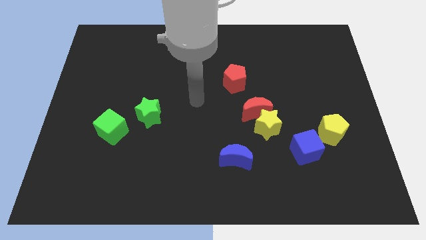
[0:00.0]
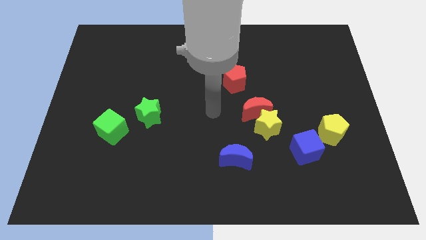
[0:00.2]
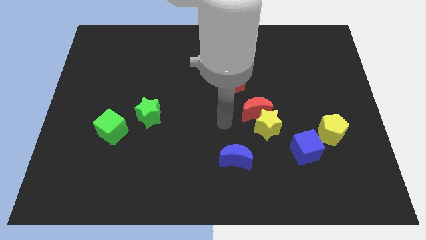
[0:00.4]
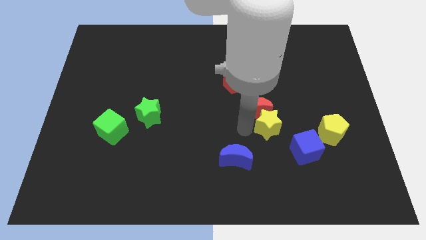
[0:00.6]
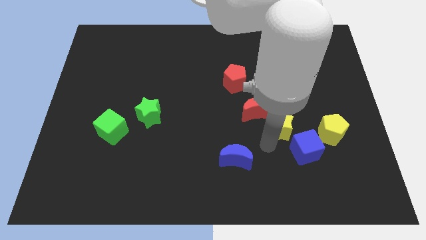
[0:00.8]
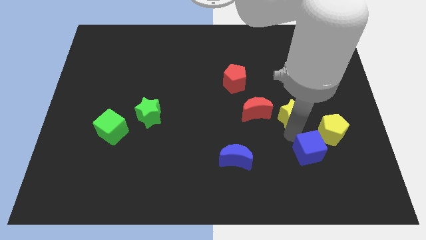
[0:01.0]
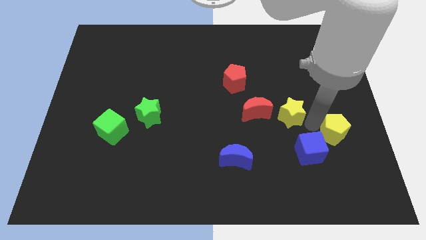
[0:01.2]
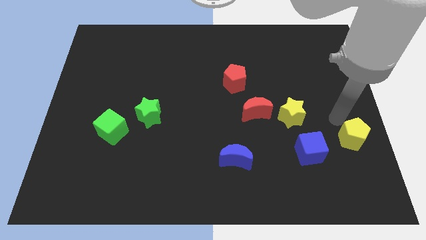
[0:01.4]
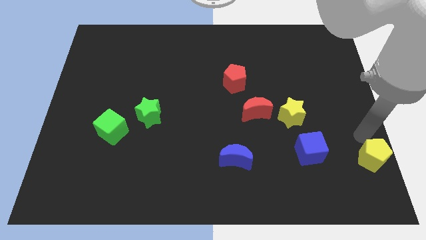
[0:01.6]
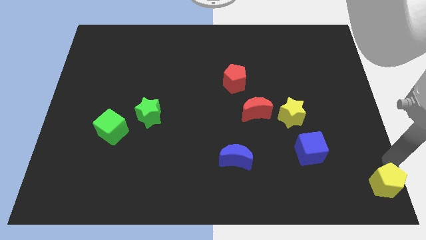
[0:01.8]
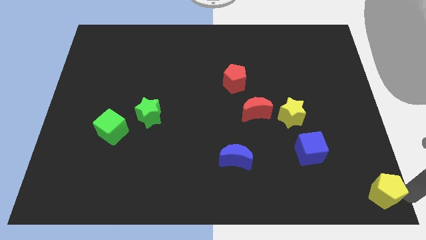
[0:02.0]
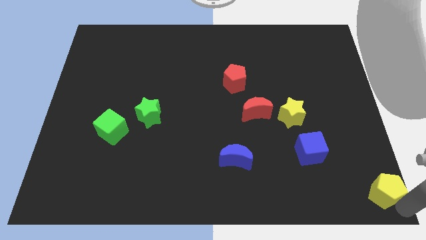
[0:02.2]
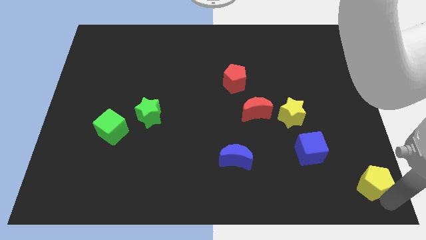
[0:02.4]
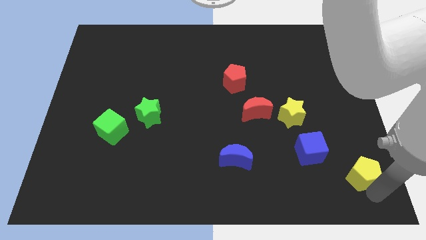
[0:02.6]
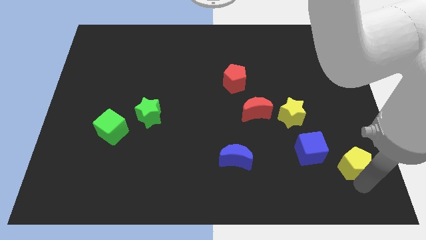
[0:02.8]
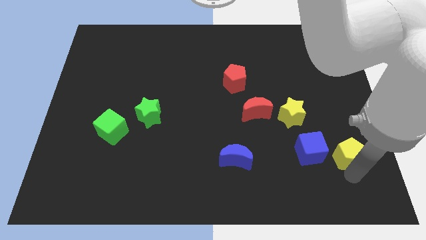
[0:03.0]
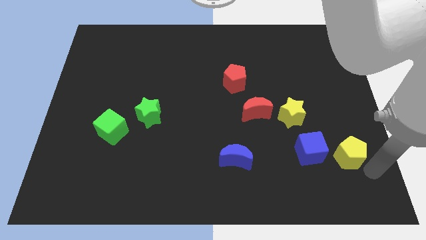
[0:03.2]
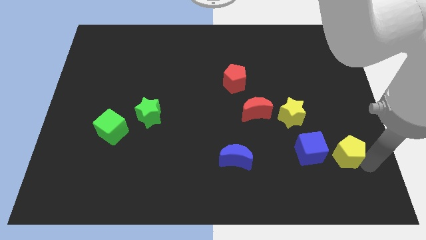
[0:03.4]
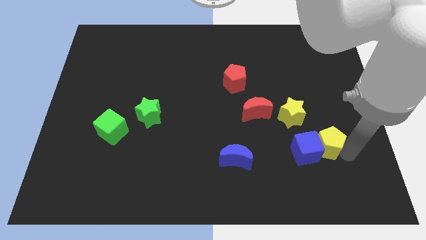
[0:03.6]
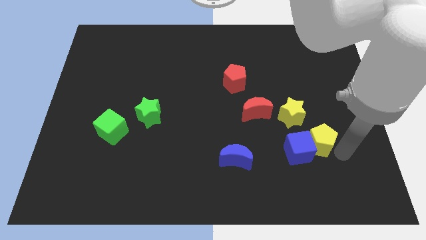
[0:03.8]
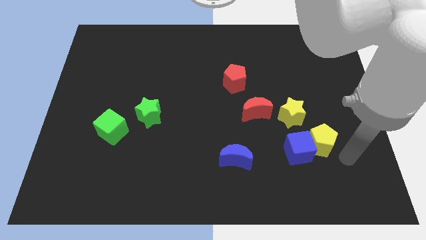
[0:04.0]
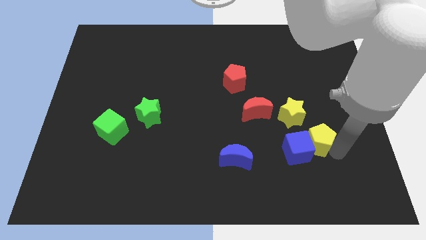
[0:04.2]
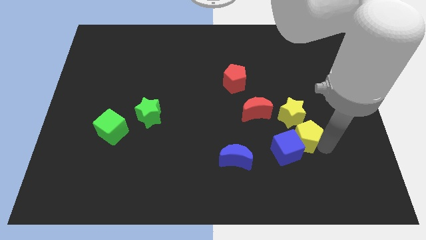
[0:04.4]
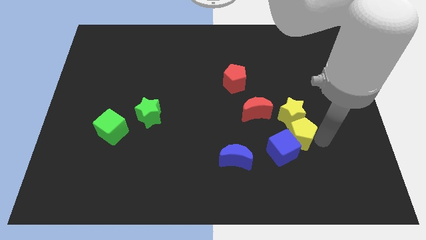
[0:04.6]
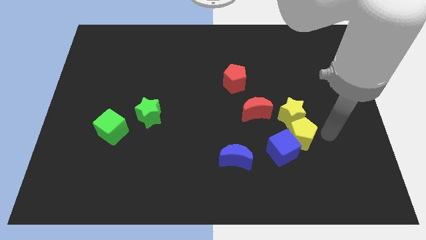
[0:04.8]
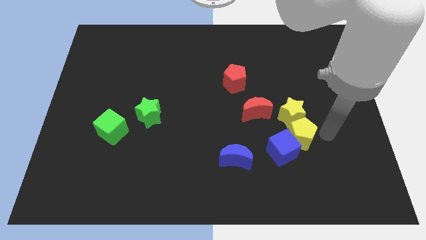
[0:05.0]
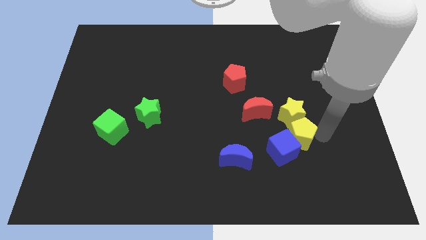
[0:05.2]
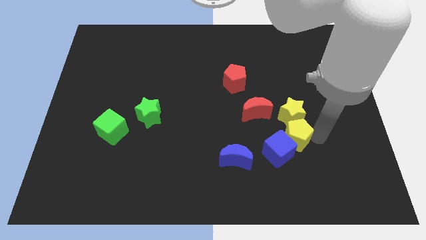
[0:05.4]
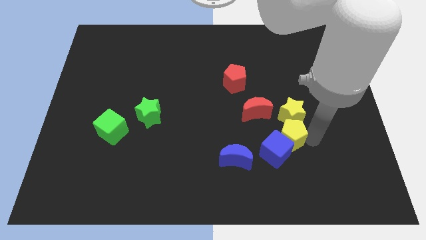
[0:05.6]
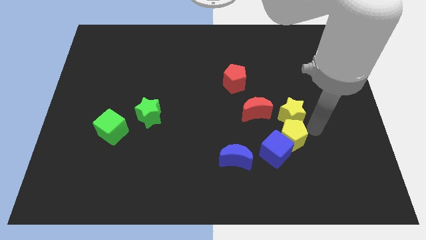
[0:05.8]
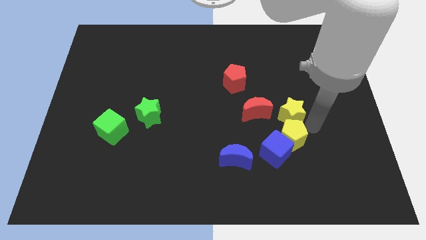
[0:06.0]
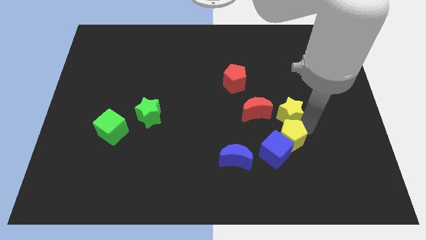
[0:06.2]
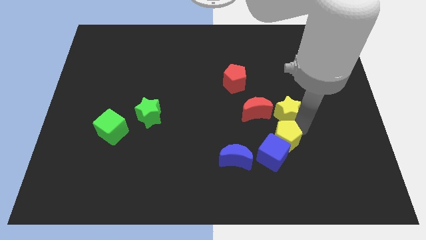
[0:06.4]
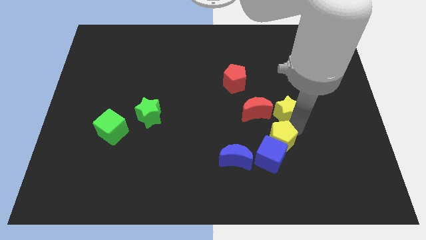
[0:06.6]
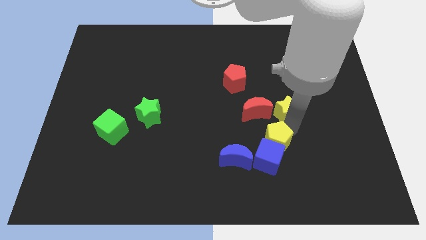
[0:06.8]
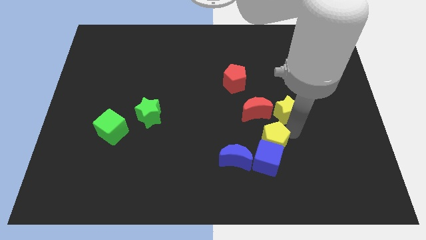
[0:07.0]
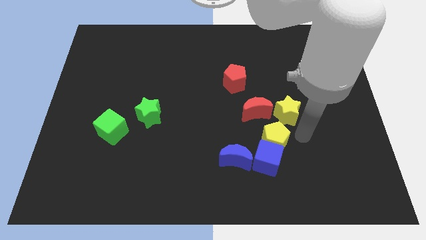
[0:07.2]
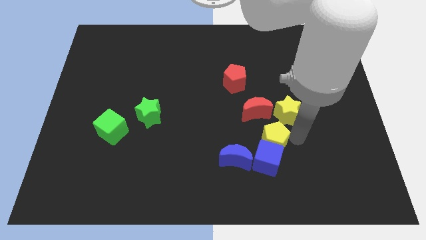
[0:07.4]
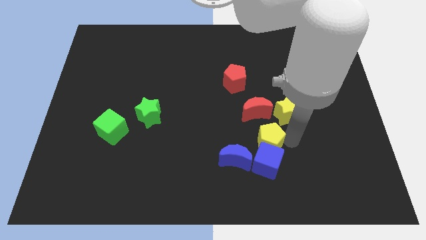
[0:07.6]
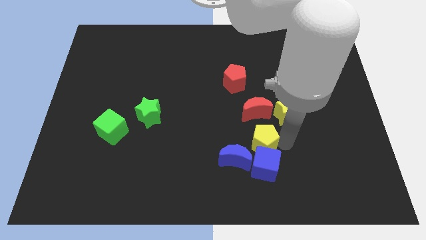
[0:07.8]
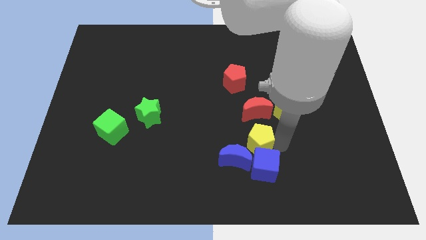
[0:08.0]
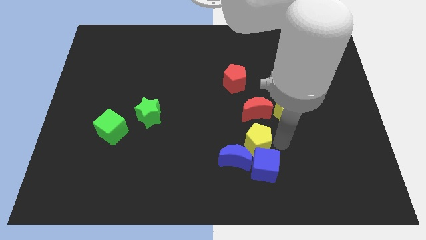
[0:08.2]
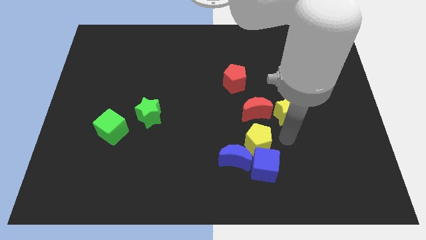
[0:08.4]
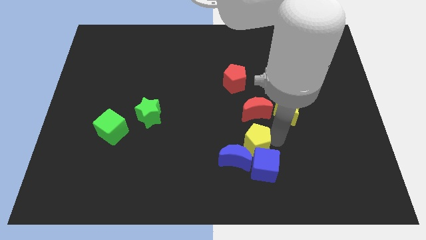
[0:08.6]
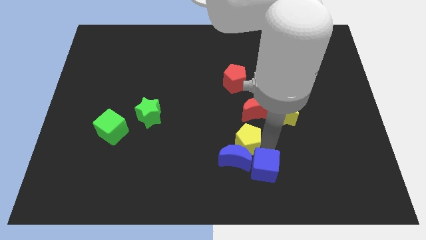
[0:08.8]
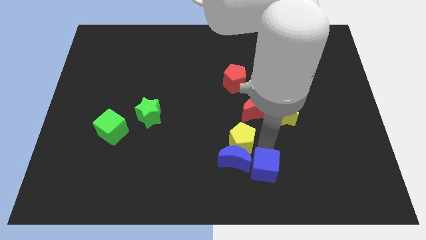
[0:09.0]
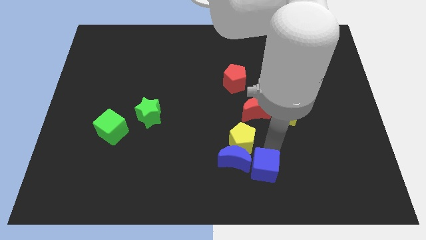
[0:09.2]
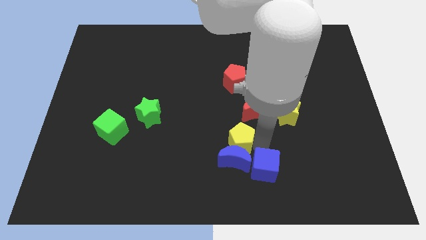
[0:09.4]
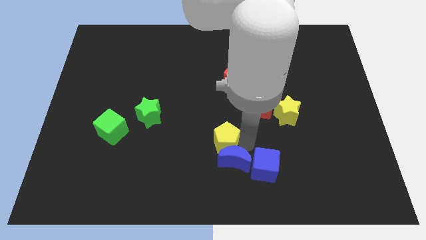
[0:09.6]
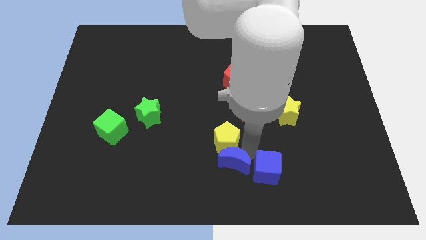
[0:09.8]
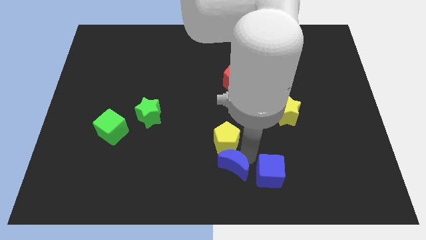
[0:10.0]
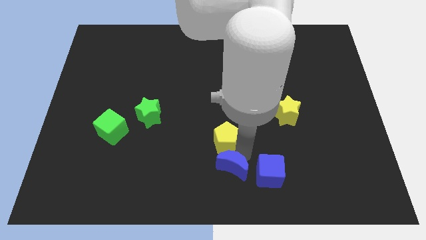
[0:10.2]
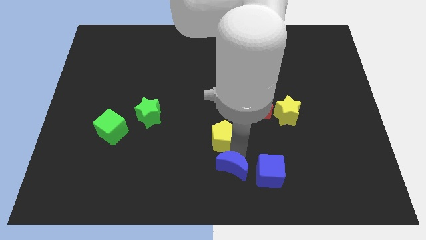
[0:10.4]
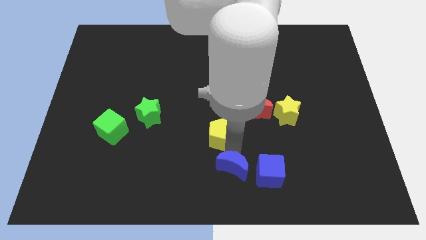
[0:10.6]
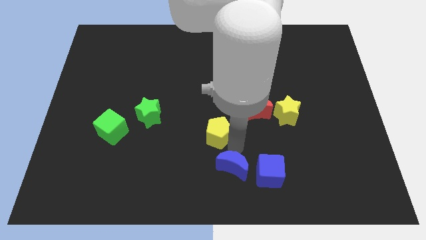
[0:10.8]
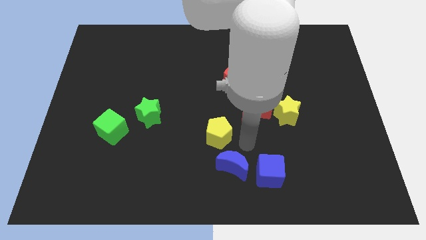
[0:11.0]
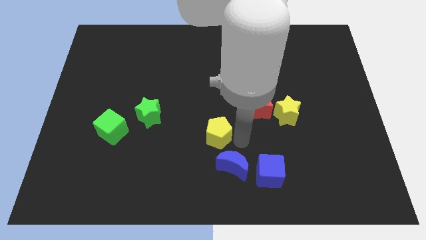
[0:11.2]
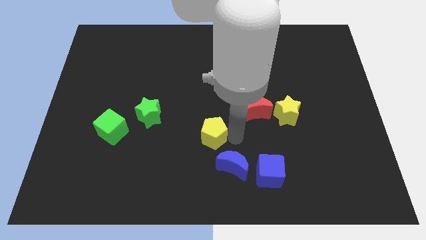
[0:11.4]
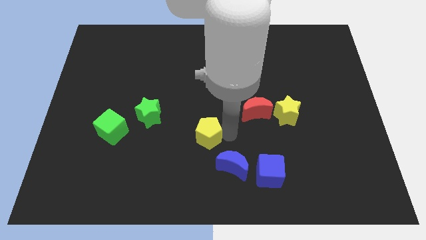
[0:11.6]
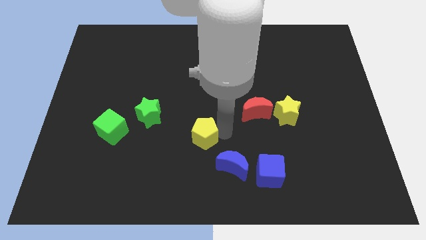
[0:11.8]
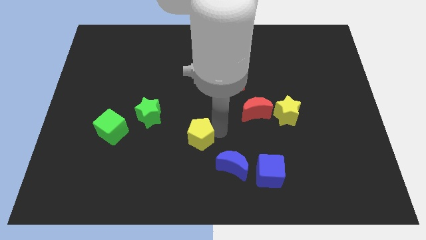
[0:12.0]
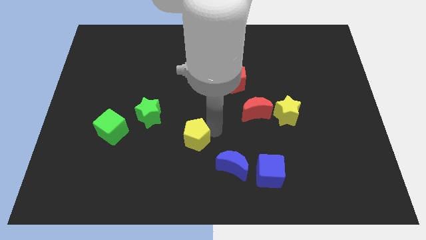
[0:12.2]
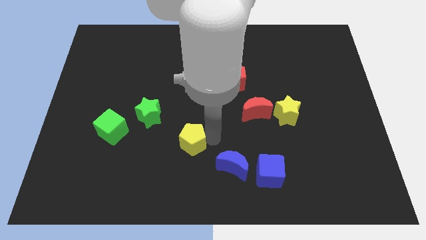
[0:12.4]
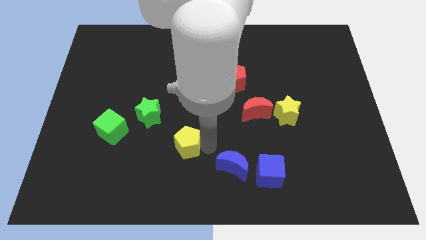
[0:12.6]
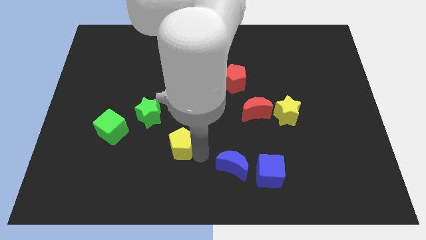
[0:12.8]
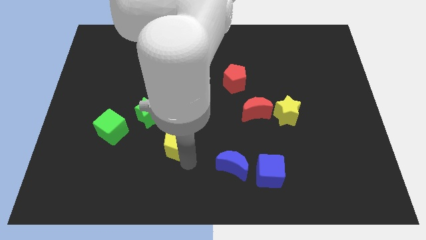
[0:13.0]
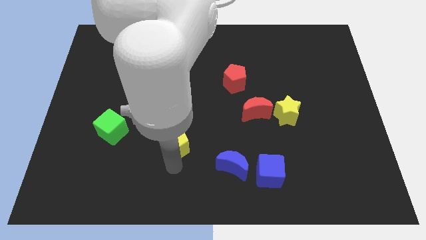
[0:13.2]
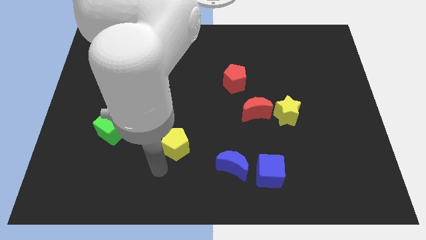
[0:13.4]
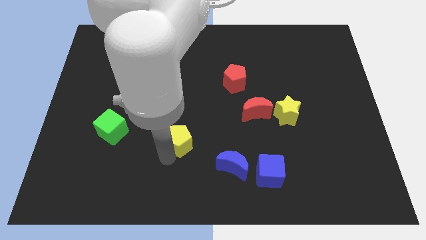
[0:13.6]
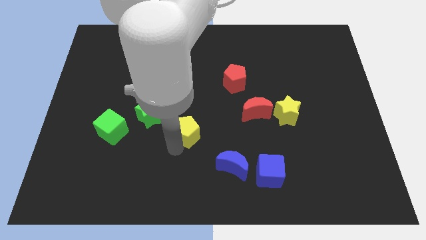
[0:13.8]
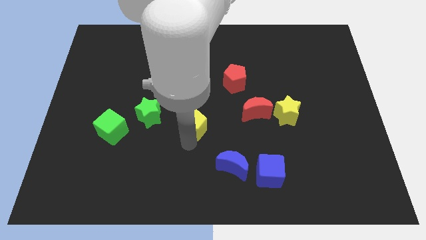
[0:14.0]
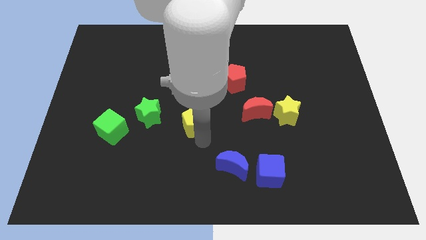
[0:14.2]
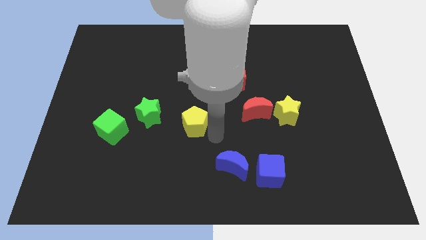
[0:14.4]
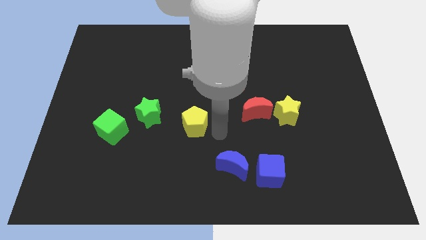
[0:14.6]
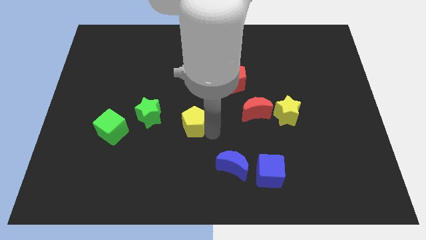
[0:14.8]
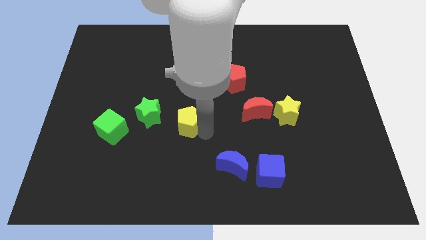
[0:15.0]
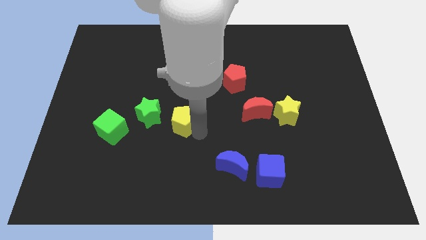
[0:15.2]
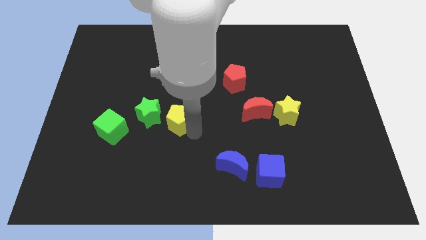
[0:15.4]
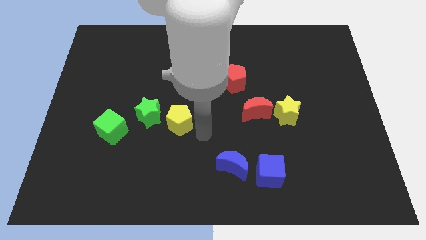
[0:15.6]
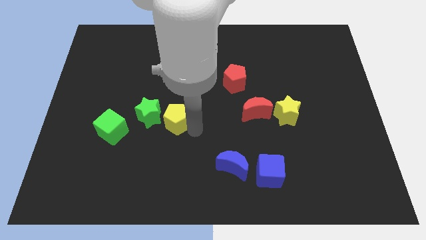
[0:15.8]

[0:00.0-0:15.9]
move the yellow pentagon towards the green star
